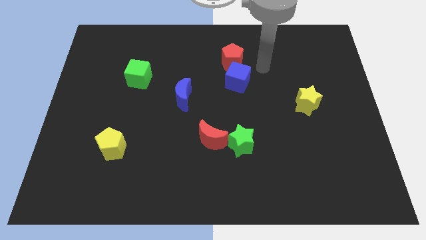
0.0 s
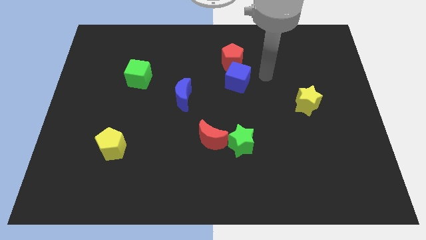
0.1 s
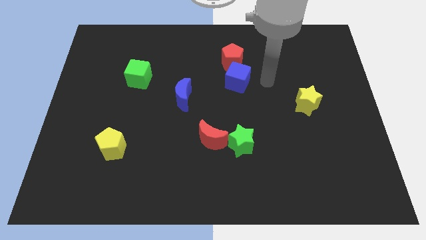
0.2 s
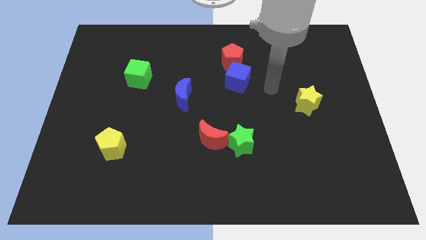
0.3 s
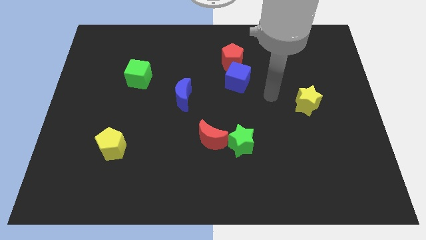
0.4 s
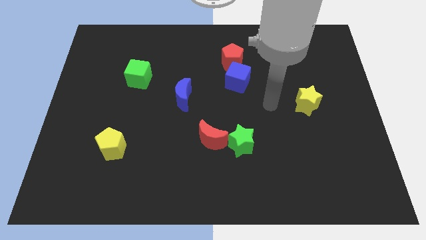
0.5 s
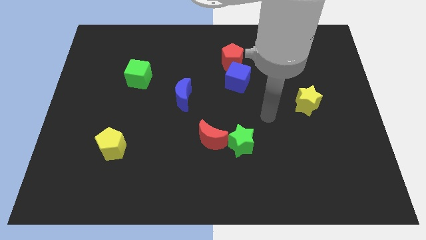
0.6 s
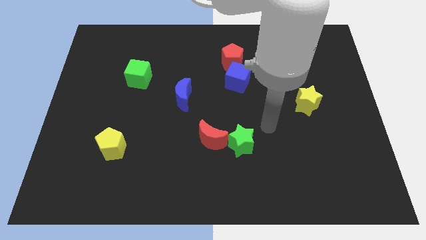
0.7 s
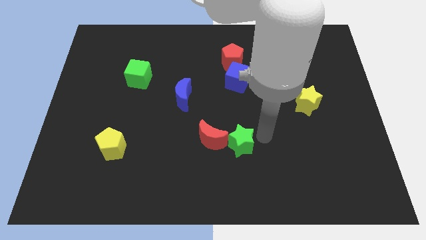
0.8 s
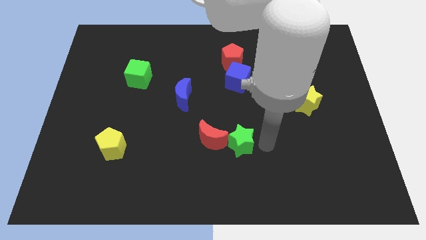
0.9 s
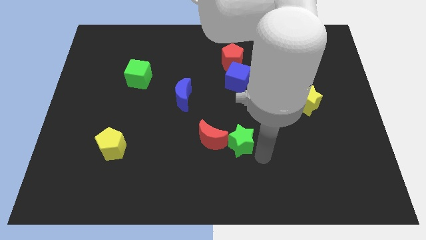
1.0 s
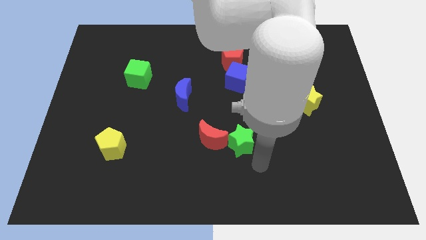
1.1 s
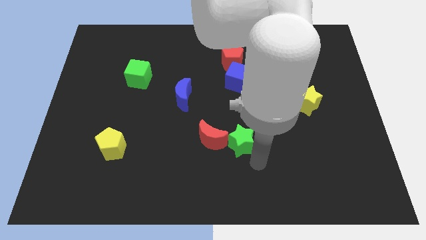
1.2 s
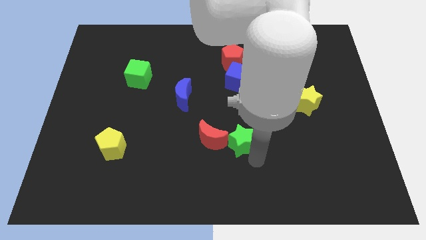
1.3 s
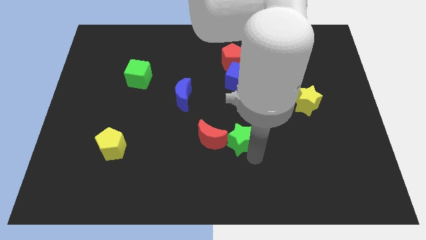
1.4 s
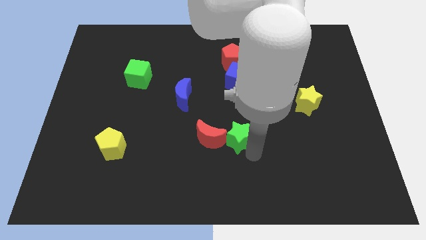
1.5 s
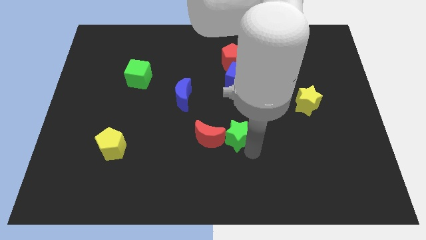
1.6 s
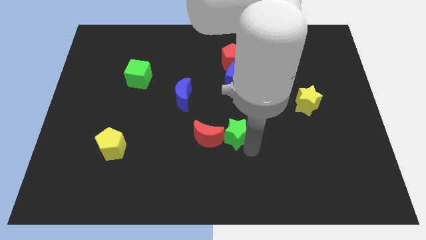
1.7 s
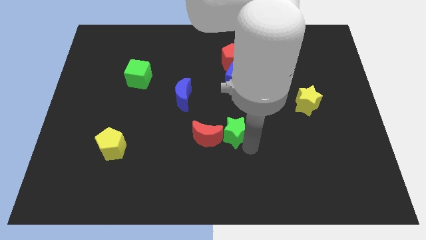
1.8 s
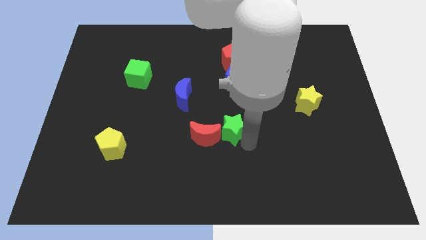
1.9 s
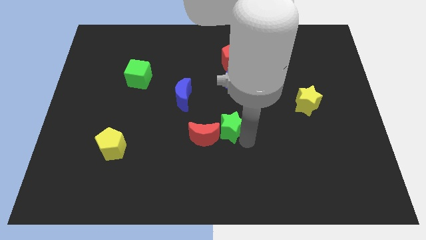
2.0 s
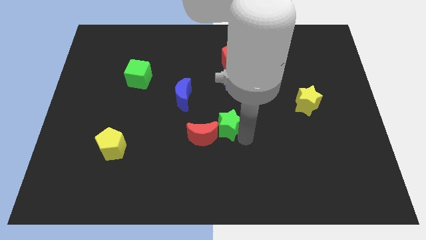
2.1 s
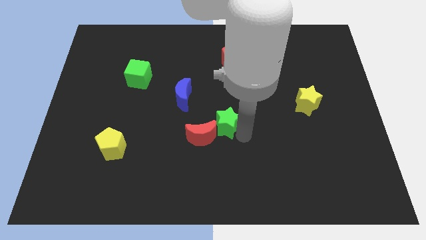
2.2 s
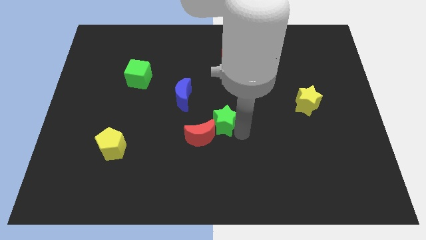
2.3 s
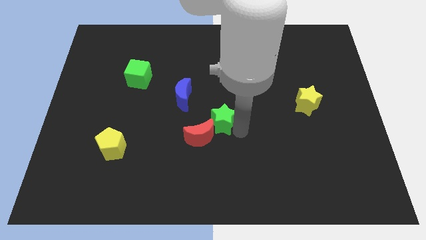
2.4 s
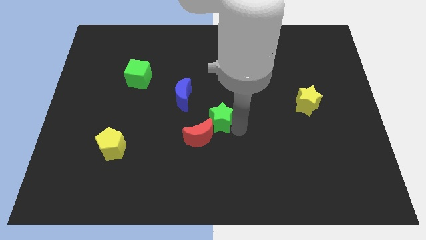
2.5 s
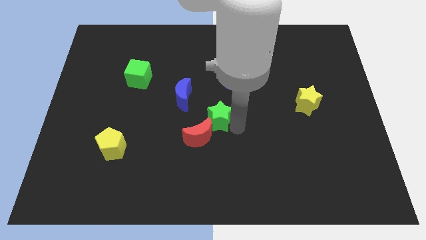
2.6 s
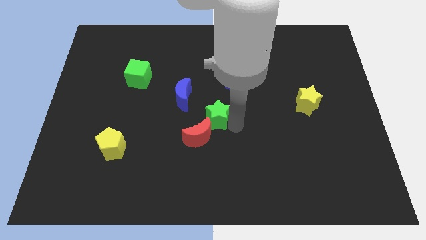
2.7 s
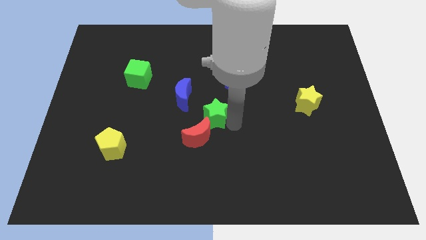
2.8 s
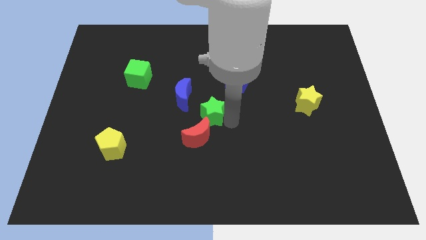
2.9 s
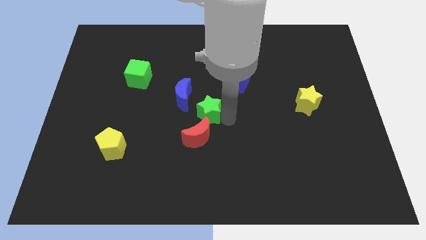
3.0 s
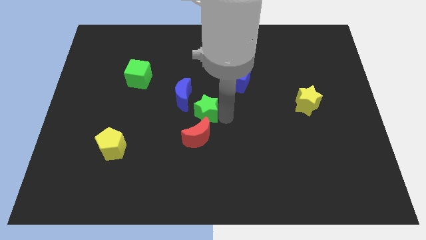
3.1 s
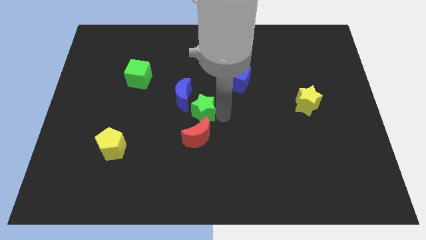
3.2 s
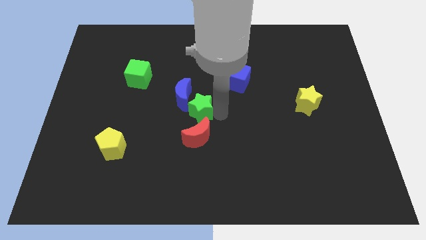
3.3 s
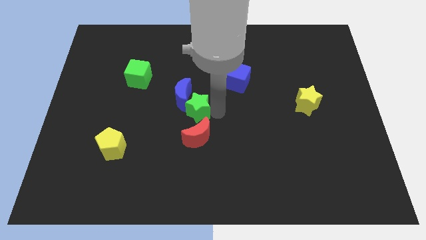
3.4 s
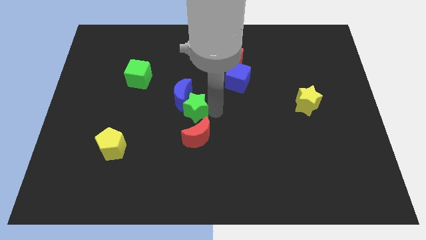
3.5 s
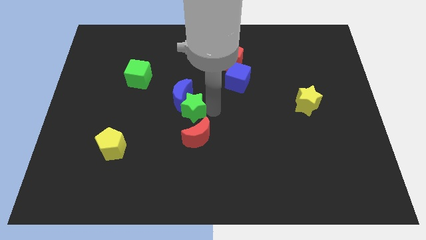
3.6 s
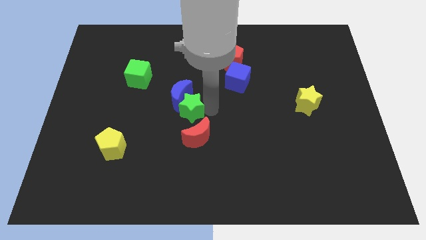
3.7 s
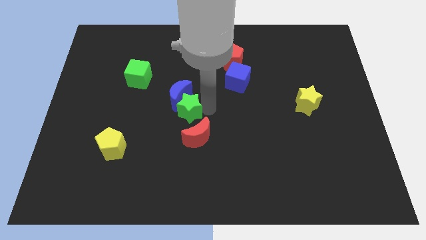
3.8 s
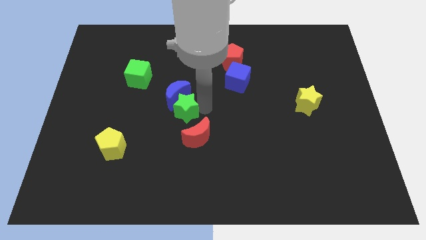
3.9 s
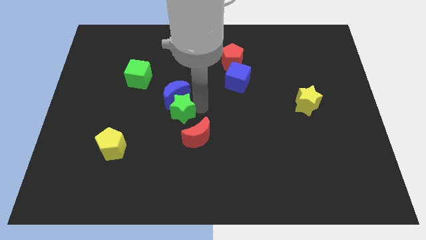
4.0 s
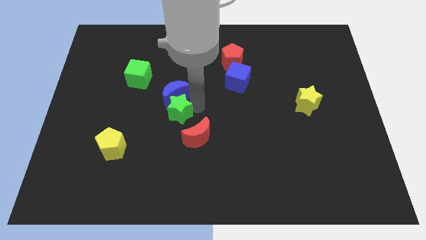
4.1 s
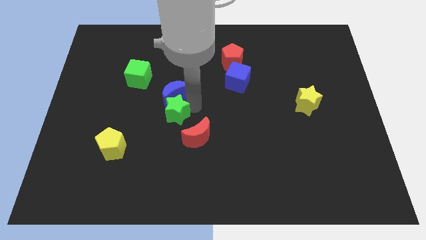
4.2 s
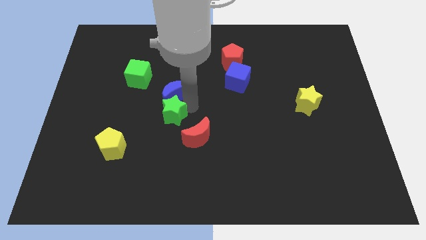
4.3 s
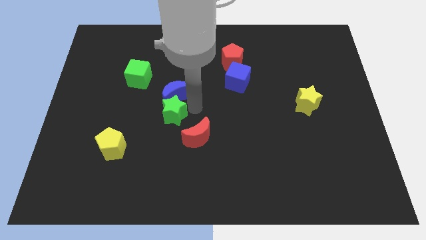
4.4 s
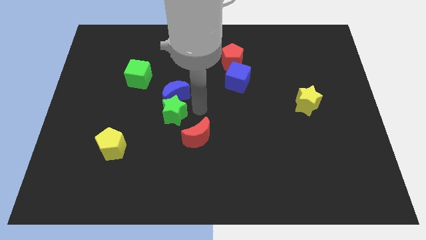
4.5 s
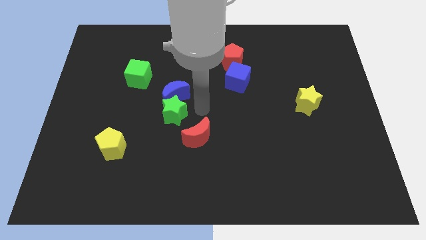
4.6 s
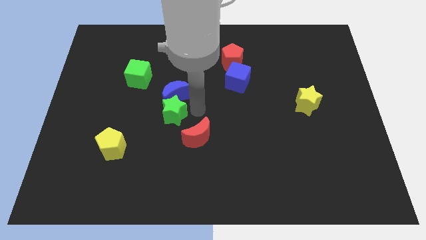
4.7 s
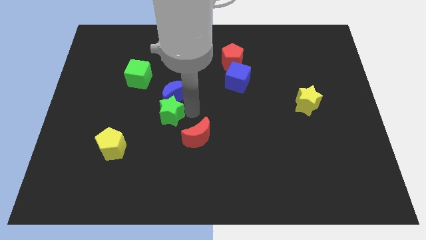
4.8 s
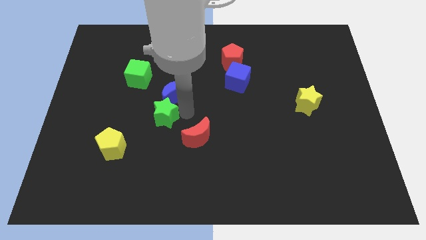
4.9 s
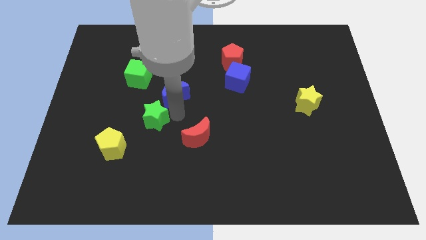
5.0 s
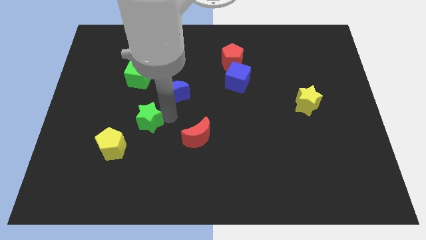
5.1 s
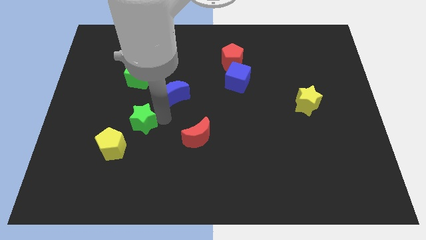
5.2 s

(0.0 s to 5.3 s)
move the green star to the left

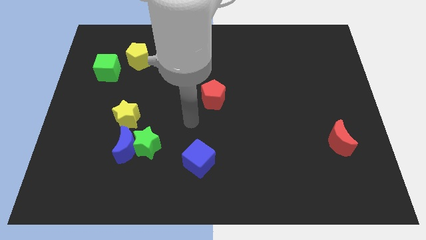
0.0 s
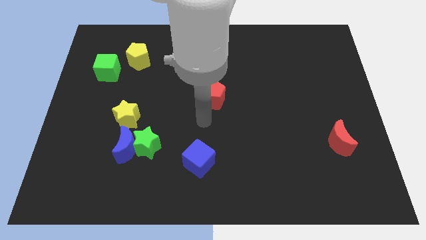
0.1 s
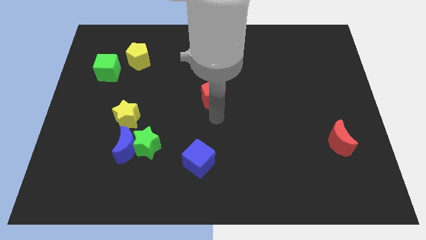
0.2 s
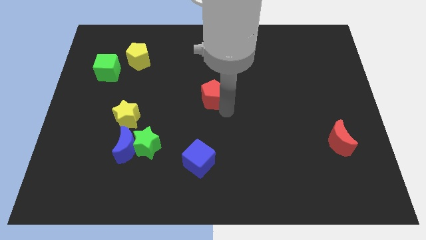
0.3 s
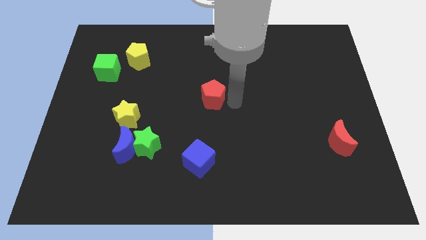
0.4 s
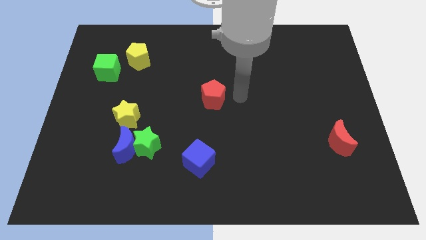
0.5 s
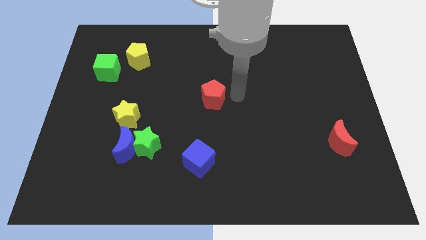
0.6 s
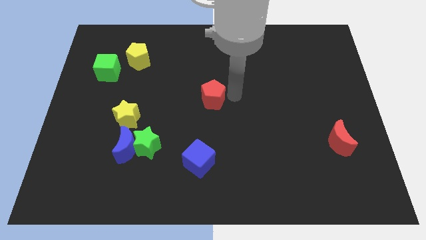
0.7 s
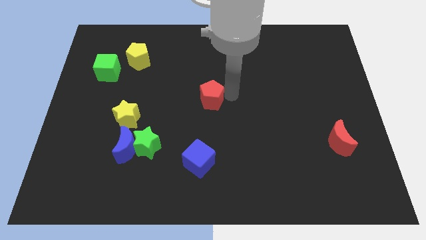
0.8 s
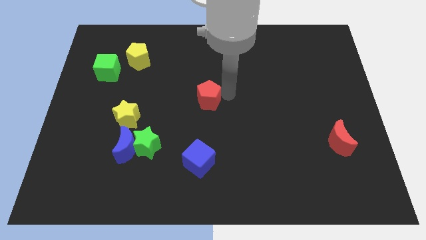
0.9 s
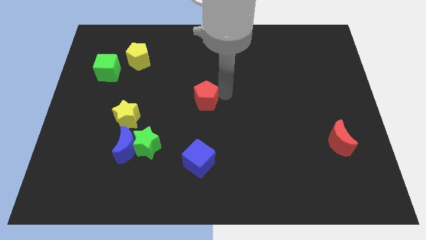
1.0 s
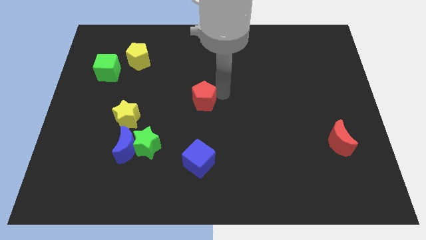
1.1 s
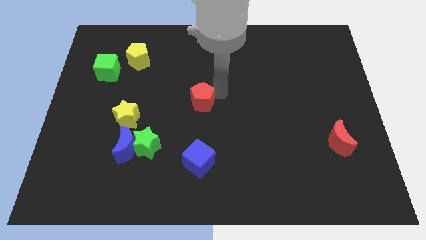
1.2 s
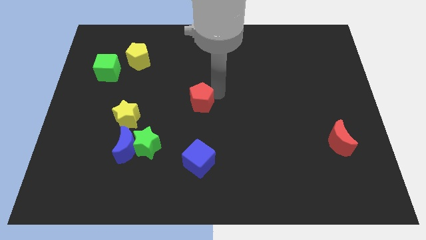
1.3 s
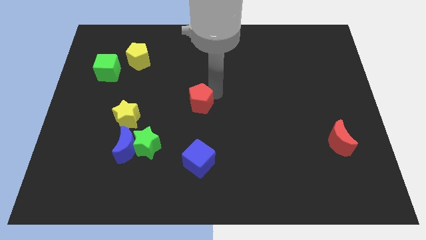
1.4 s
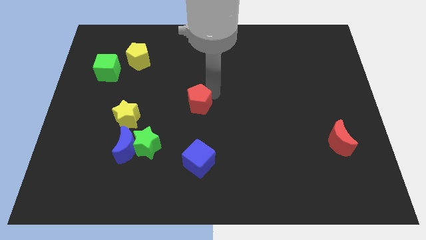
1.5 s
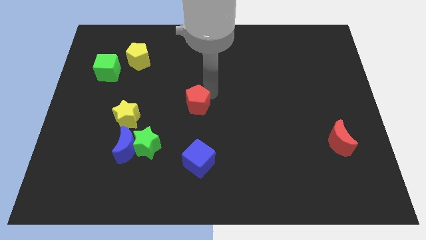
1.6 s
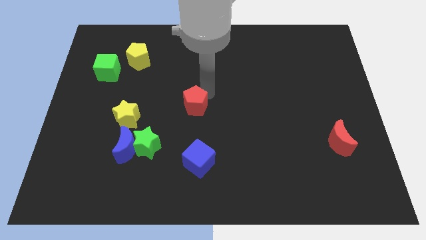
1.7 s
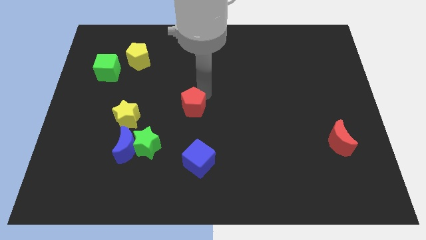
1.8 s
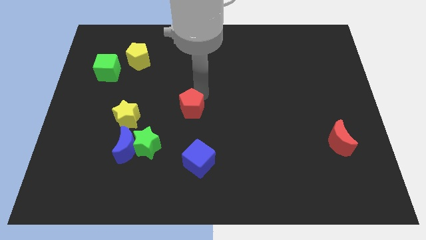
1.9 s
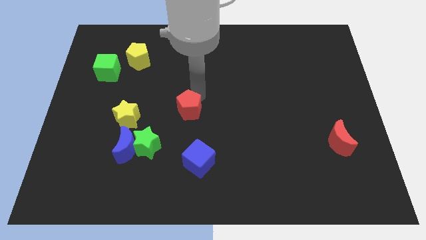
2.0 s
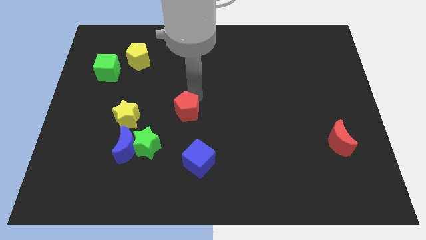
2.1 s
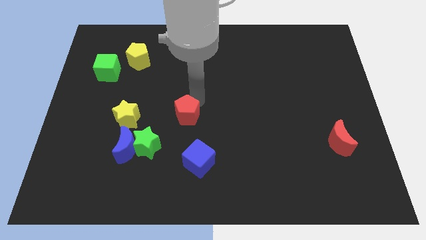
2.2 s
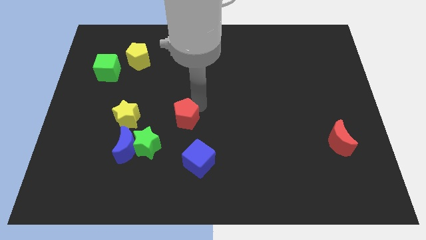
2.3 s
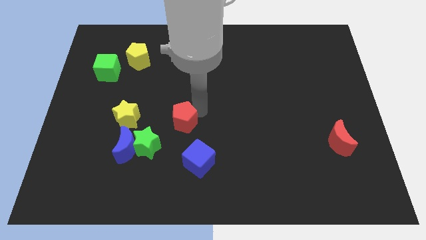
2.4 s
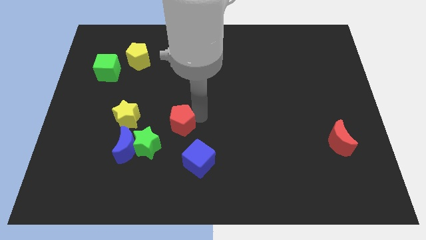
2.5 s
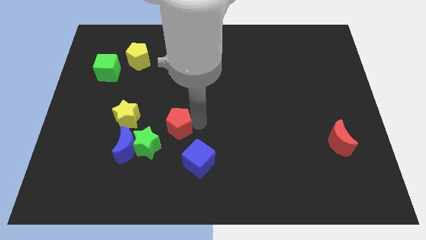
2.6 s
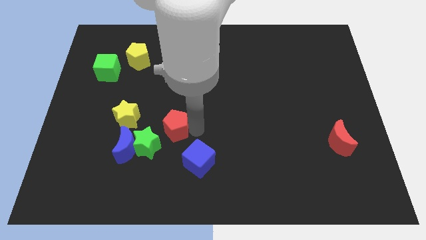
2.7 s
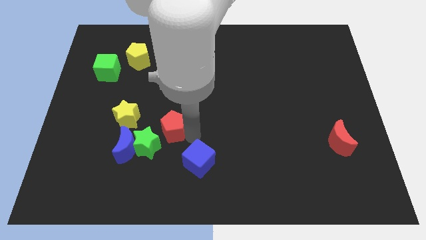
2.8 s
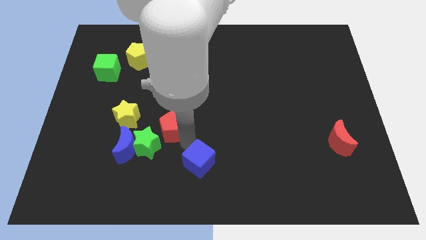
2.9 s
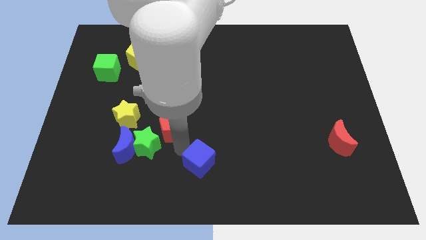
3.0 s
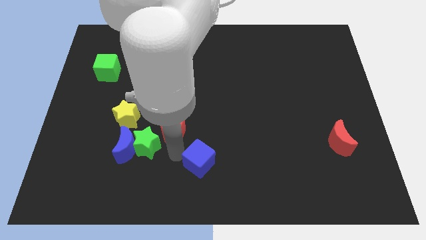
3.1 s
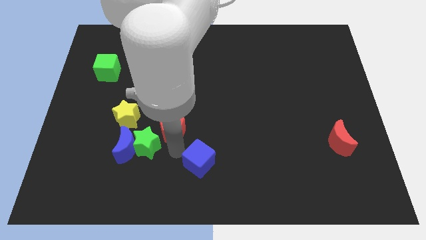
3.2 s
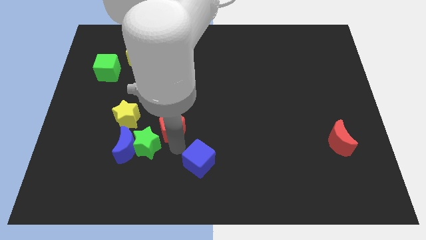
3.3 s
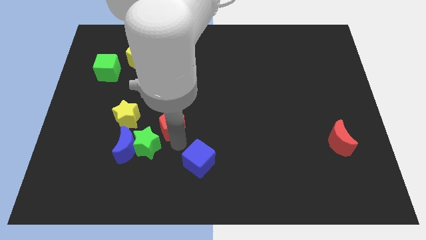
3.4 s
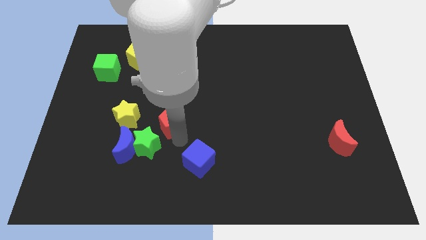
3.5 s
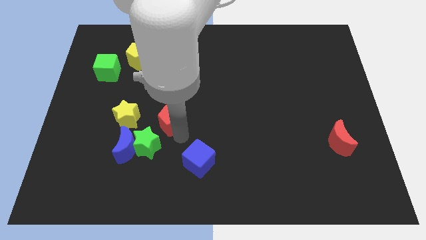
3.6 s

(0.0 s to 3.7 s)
push the red pentagon a little to the left
